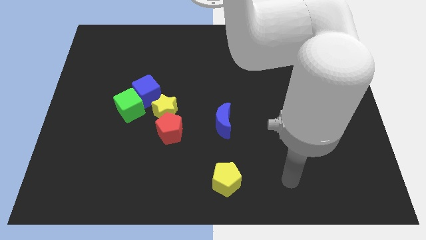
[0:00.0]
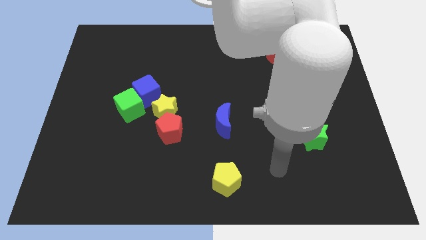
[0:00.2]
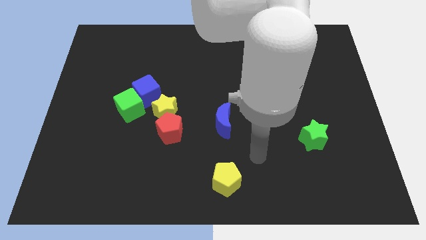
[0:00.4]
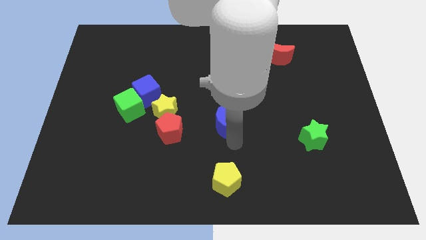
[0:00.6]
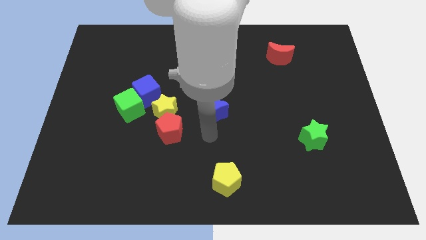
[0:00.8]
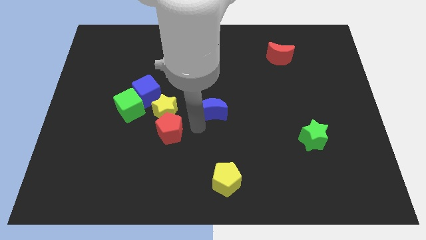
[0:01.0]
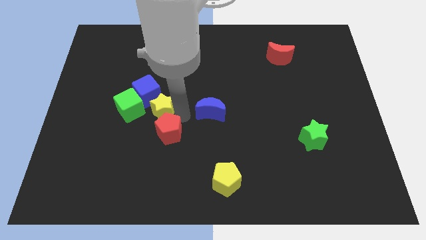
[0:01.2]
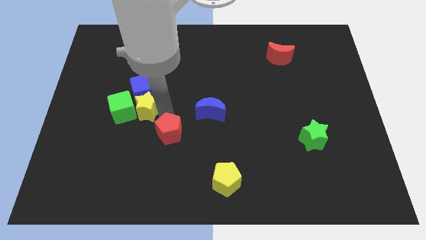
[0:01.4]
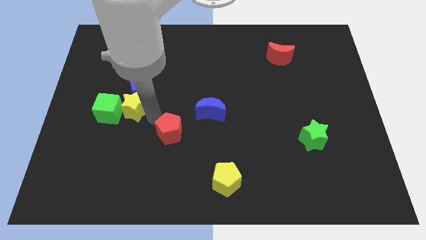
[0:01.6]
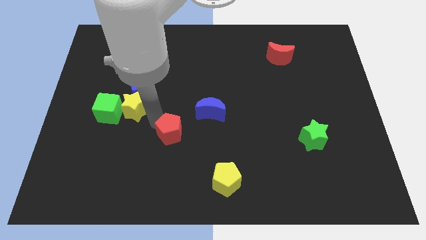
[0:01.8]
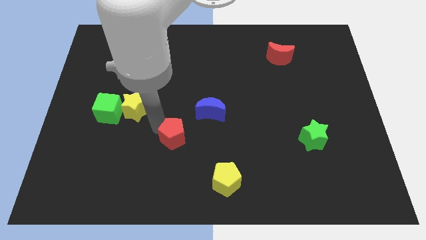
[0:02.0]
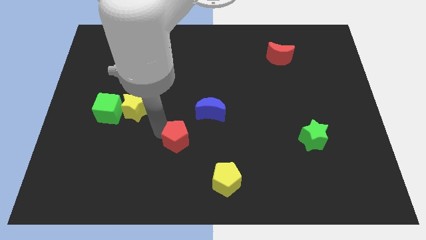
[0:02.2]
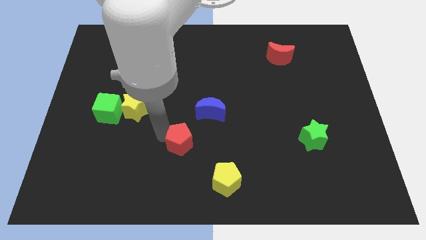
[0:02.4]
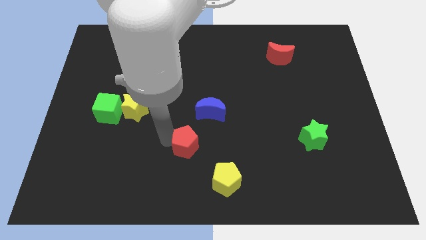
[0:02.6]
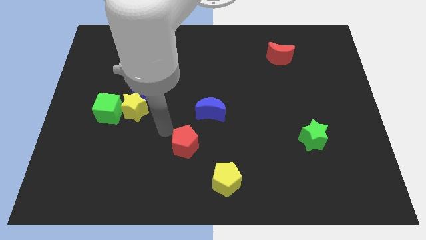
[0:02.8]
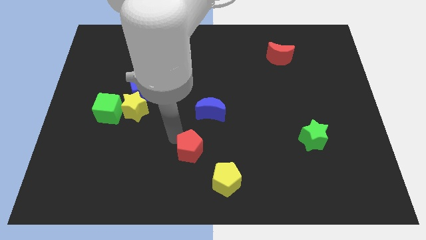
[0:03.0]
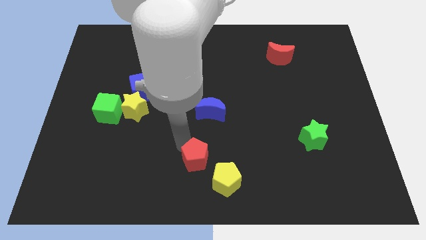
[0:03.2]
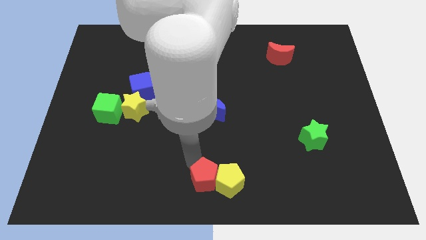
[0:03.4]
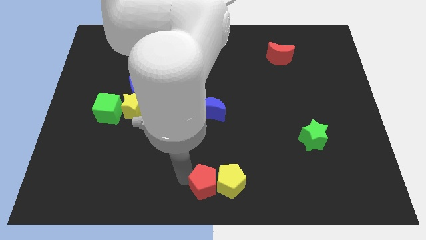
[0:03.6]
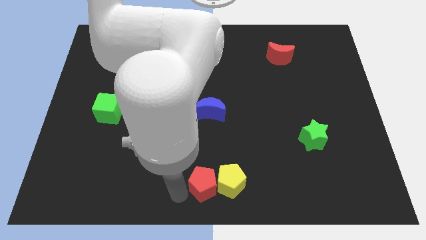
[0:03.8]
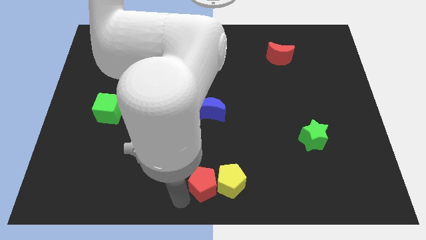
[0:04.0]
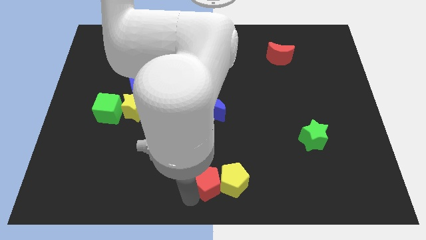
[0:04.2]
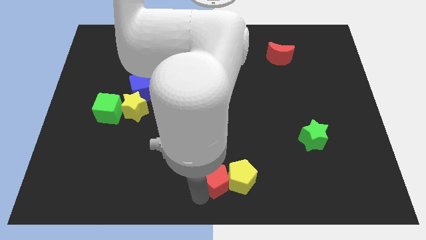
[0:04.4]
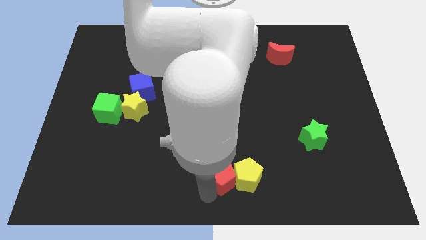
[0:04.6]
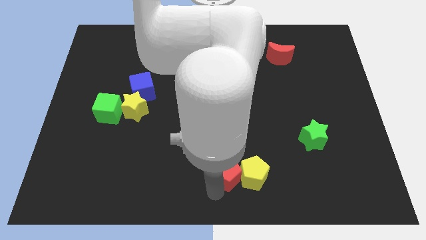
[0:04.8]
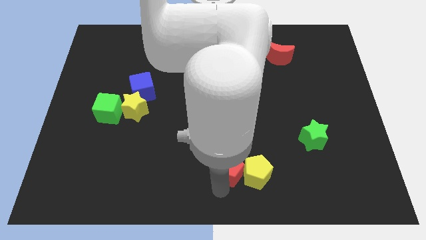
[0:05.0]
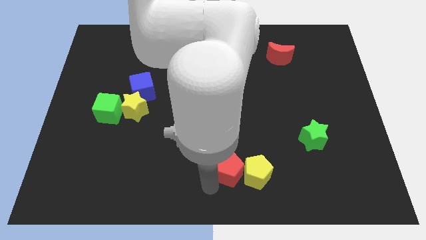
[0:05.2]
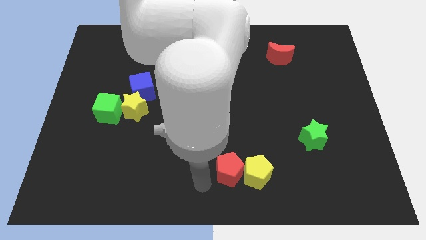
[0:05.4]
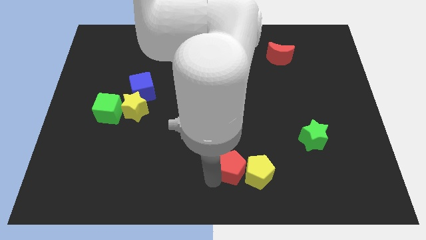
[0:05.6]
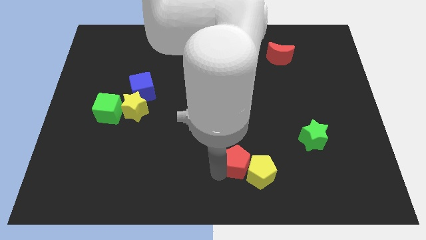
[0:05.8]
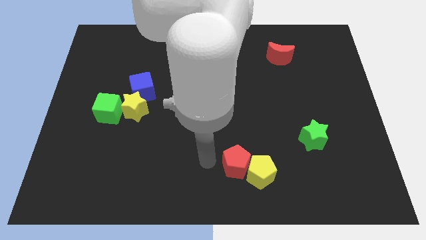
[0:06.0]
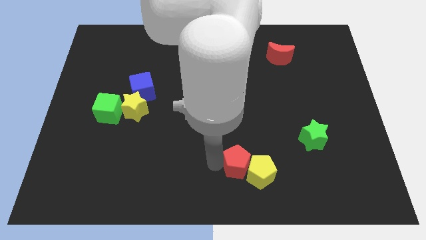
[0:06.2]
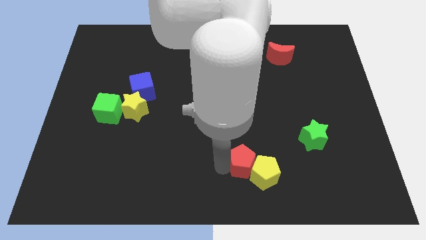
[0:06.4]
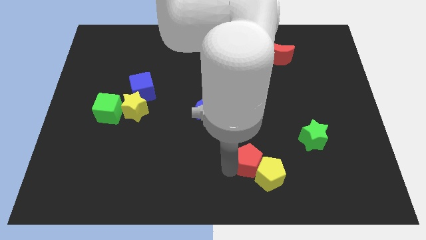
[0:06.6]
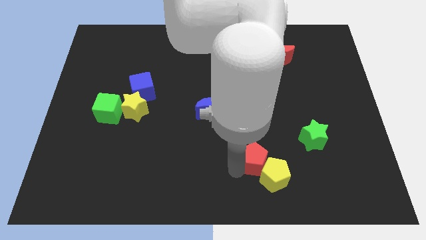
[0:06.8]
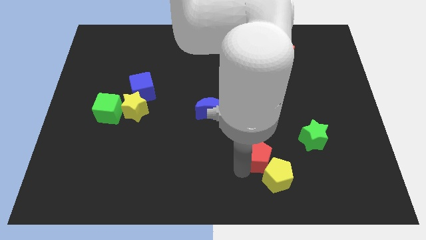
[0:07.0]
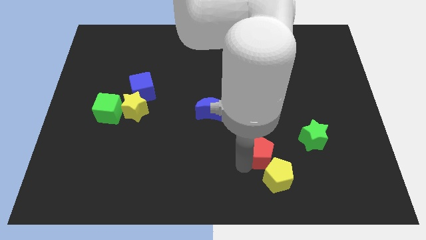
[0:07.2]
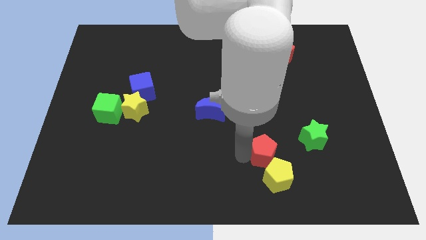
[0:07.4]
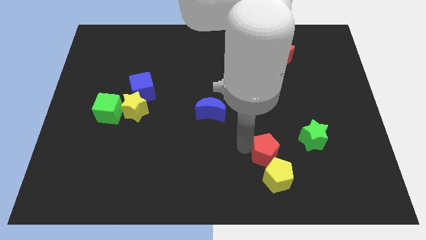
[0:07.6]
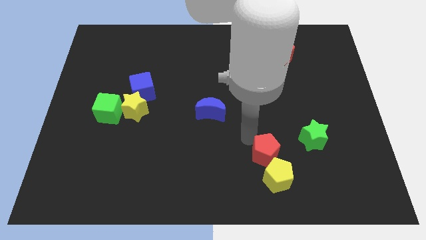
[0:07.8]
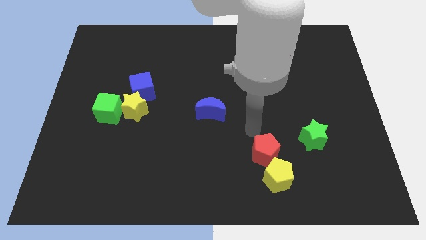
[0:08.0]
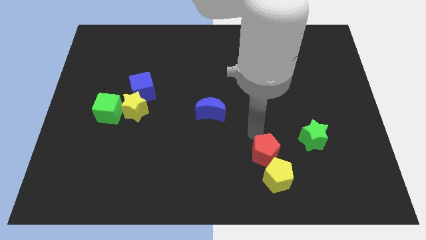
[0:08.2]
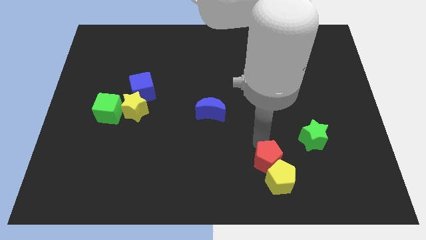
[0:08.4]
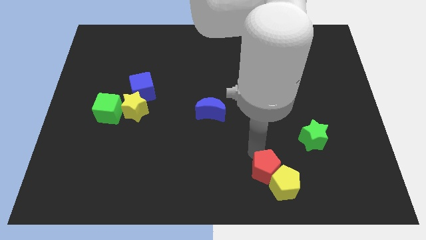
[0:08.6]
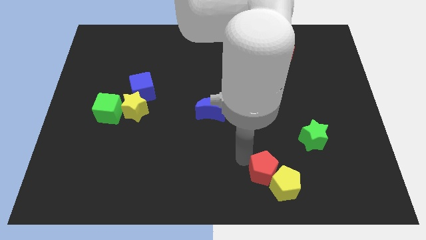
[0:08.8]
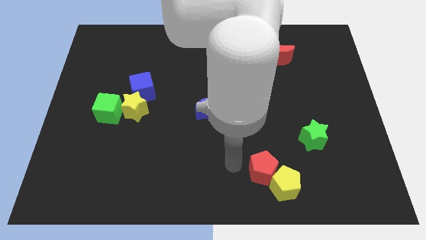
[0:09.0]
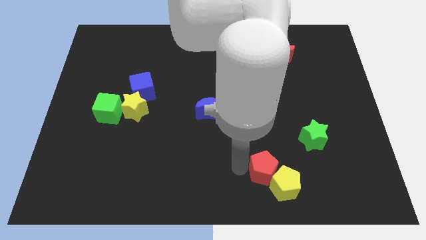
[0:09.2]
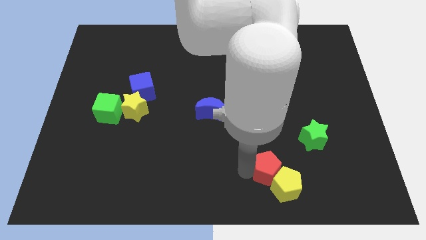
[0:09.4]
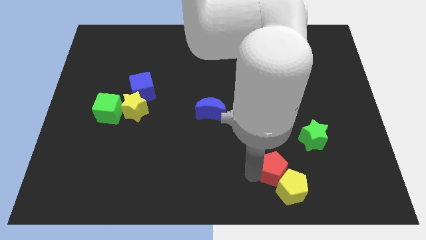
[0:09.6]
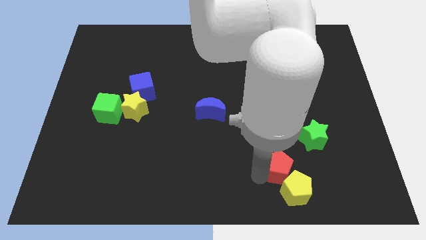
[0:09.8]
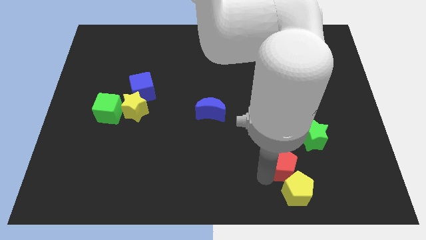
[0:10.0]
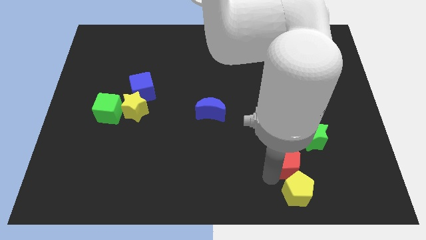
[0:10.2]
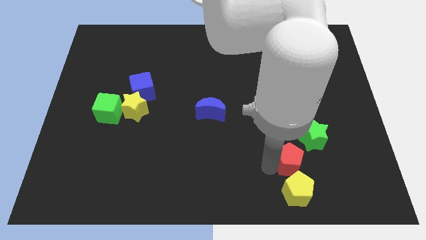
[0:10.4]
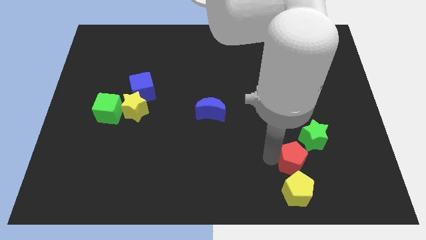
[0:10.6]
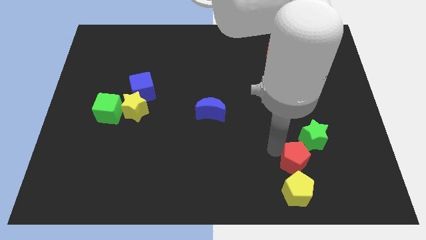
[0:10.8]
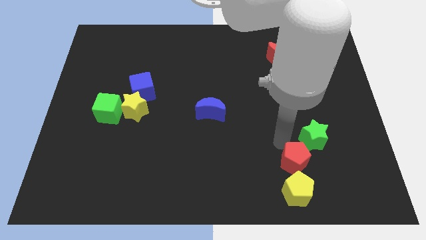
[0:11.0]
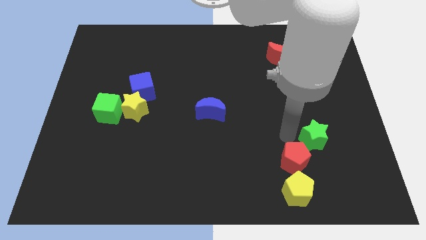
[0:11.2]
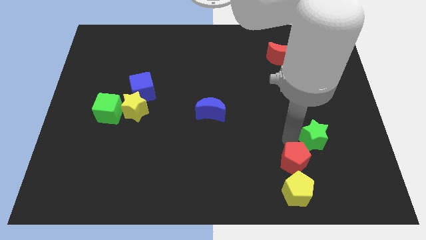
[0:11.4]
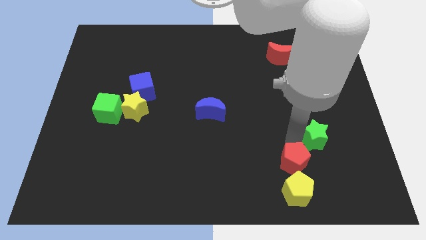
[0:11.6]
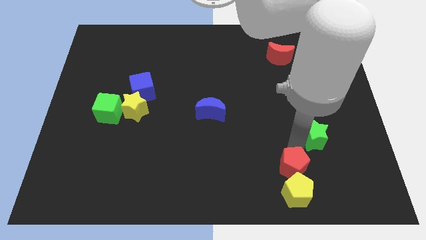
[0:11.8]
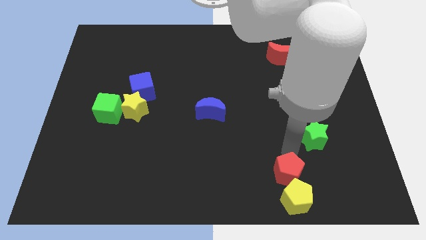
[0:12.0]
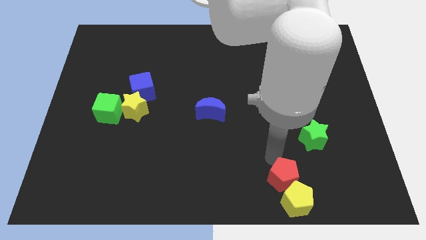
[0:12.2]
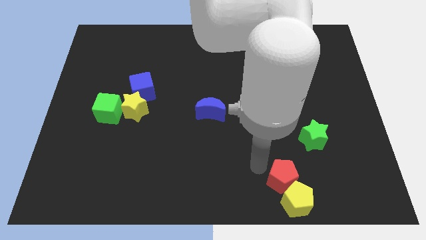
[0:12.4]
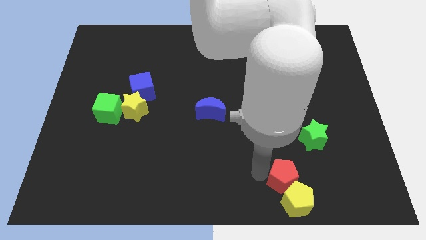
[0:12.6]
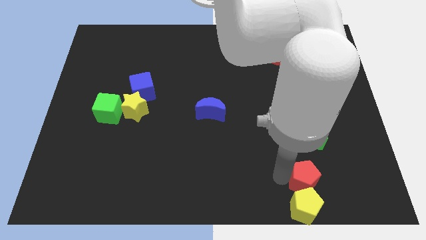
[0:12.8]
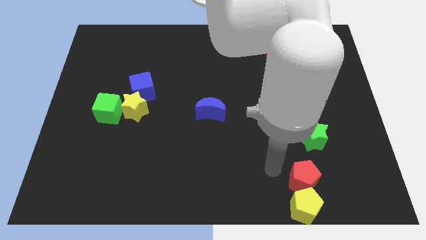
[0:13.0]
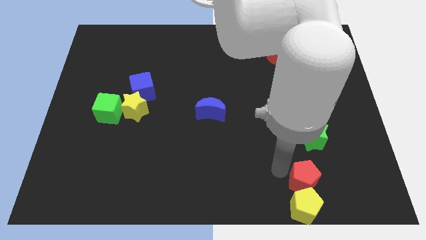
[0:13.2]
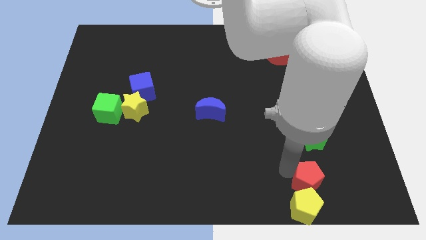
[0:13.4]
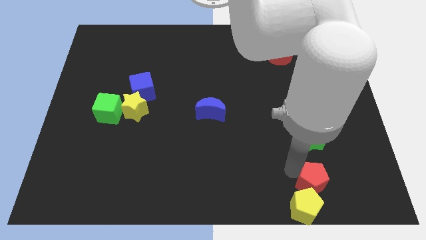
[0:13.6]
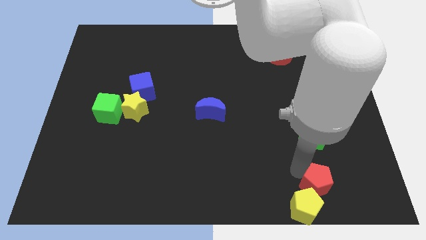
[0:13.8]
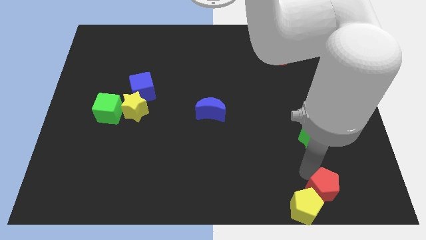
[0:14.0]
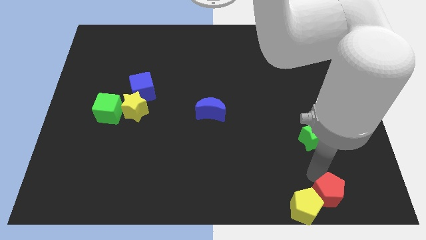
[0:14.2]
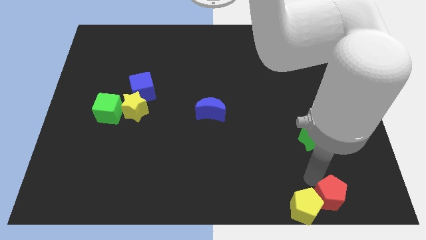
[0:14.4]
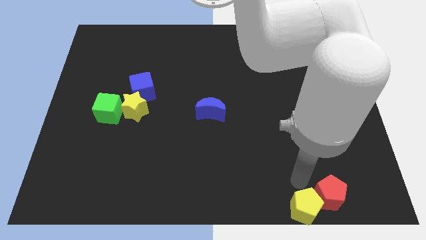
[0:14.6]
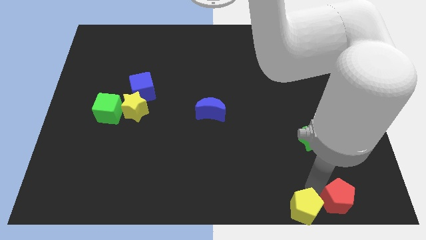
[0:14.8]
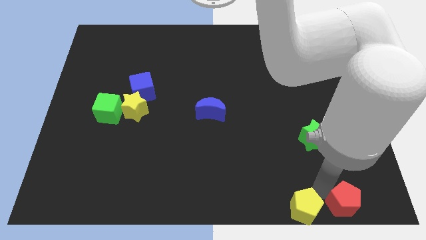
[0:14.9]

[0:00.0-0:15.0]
put the red pentagon to the bottom right

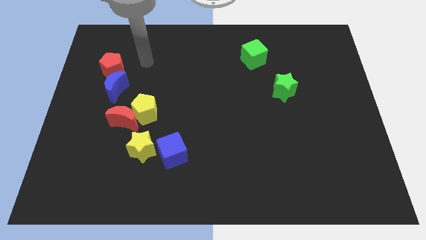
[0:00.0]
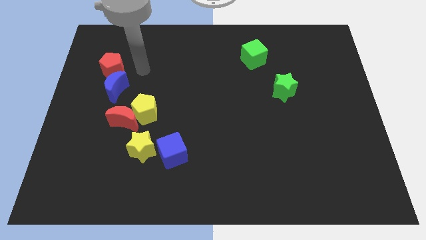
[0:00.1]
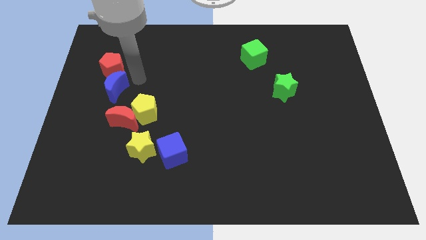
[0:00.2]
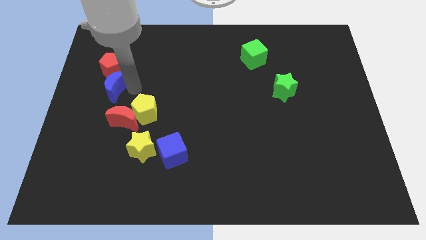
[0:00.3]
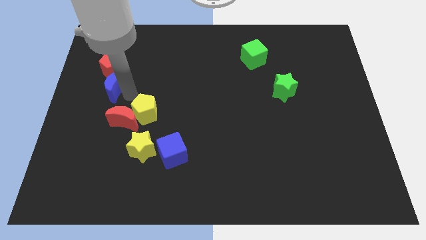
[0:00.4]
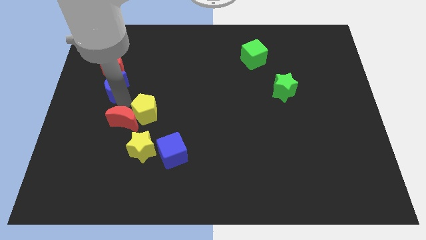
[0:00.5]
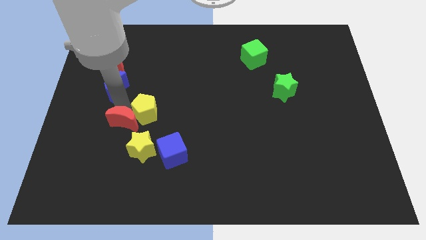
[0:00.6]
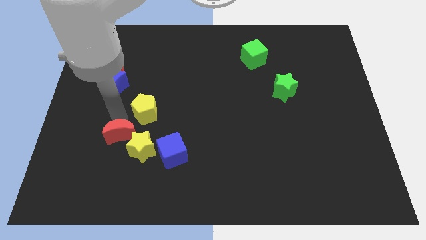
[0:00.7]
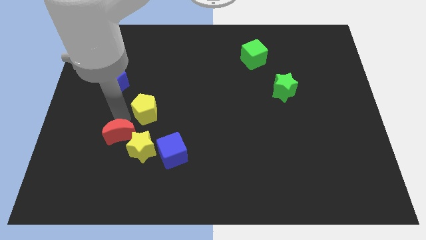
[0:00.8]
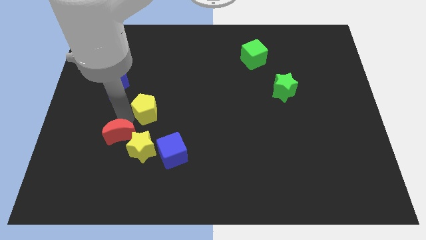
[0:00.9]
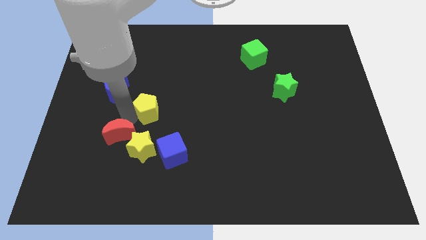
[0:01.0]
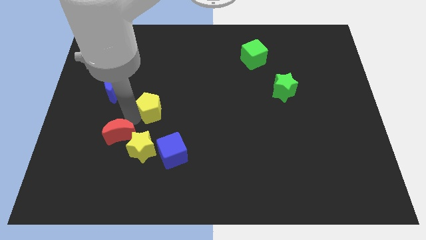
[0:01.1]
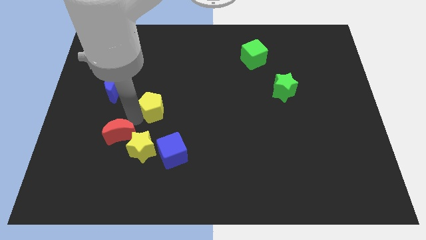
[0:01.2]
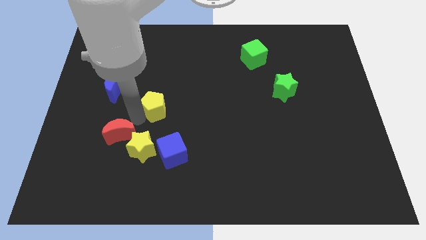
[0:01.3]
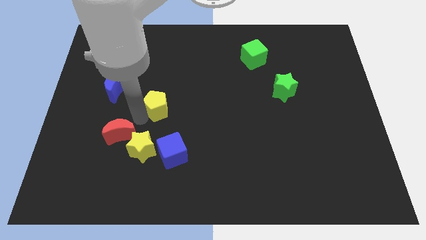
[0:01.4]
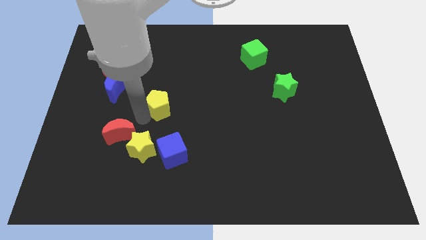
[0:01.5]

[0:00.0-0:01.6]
move the yellow pentagon to the middle
